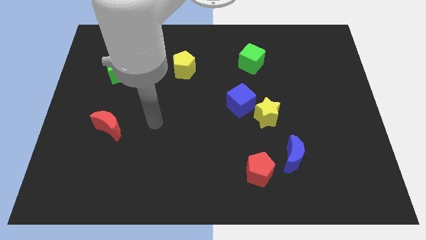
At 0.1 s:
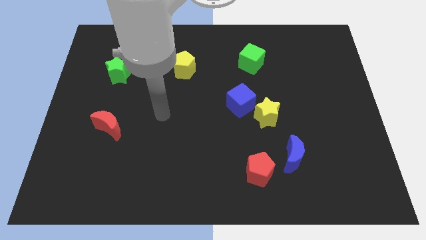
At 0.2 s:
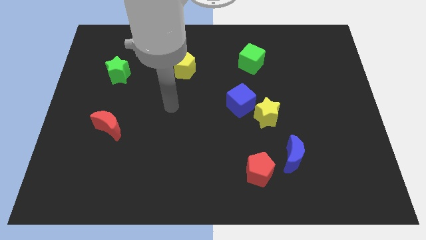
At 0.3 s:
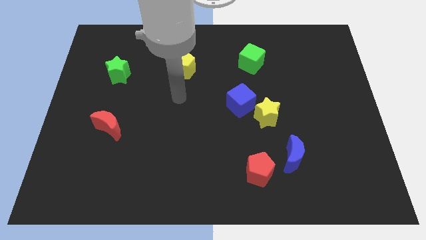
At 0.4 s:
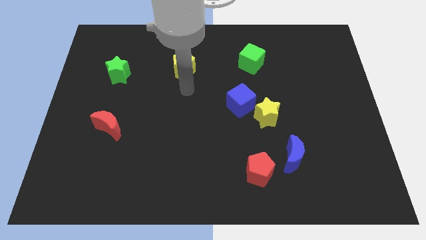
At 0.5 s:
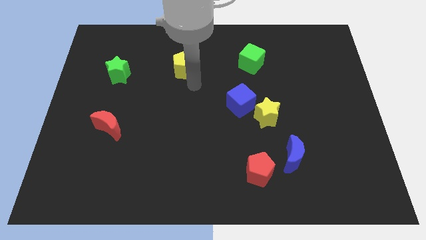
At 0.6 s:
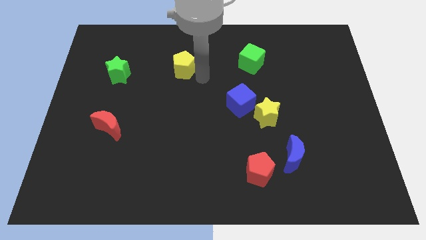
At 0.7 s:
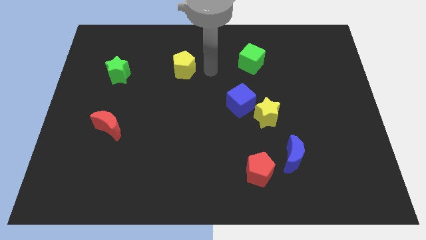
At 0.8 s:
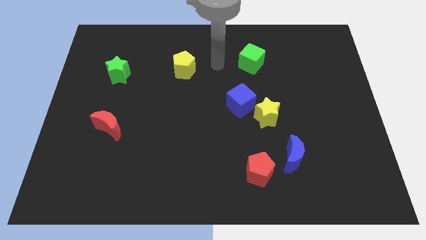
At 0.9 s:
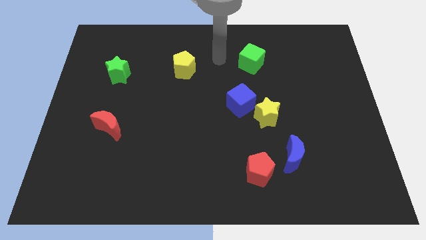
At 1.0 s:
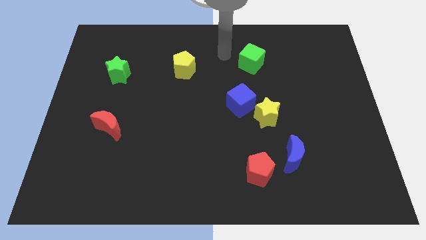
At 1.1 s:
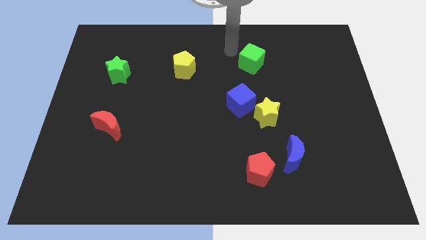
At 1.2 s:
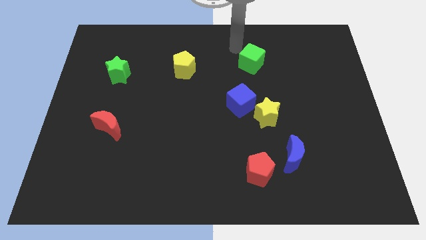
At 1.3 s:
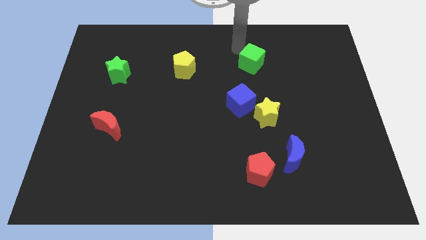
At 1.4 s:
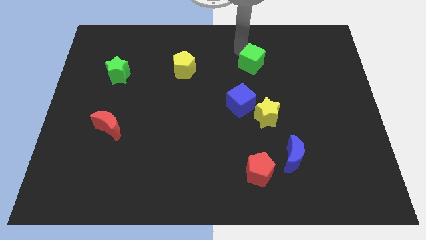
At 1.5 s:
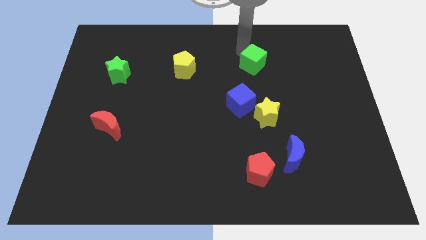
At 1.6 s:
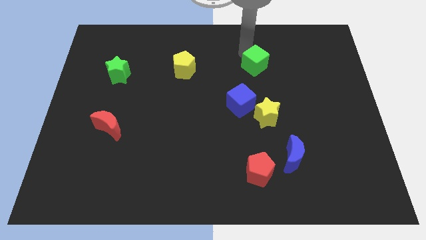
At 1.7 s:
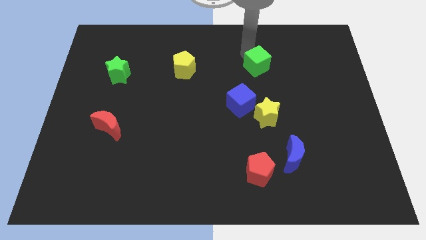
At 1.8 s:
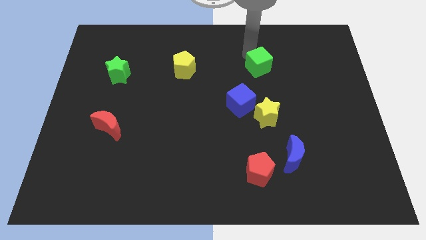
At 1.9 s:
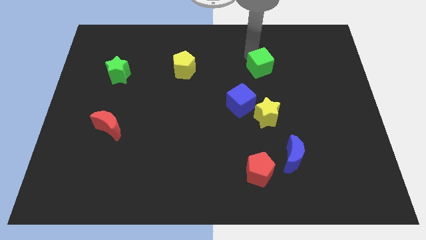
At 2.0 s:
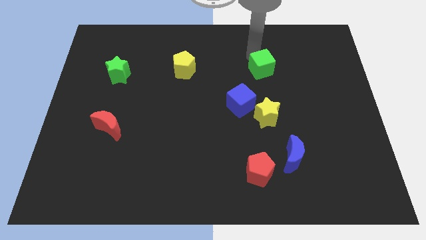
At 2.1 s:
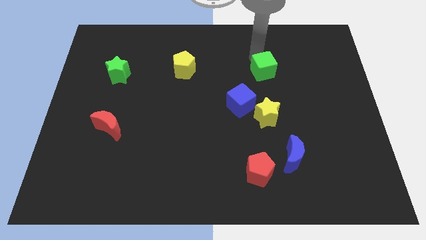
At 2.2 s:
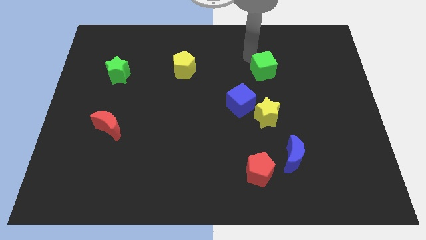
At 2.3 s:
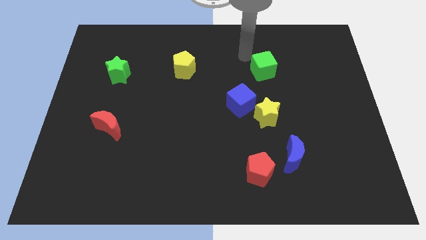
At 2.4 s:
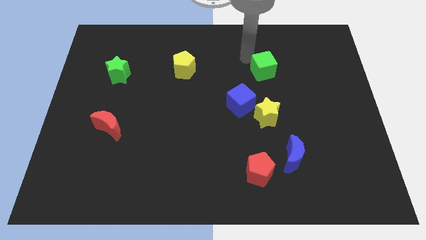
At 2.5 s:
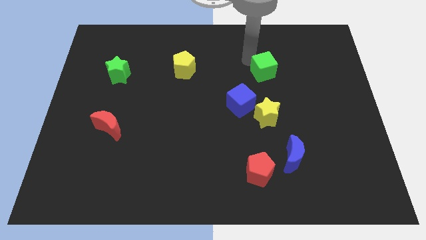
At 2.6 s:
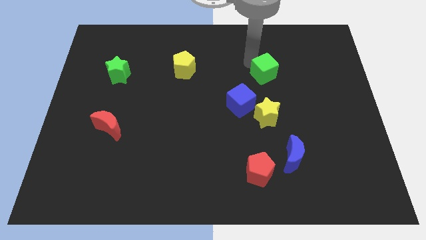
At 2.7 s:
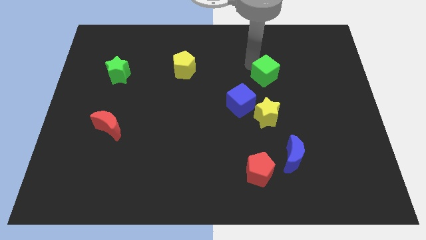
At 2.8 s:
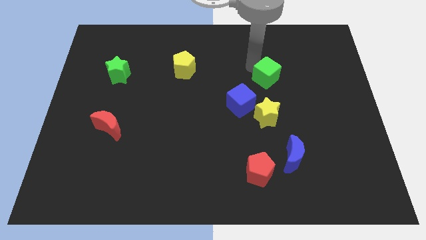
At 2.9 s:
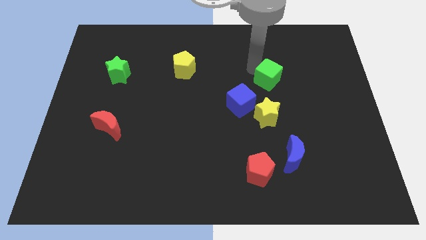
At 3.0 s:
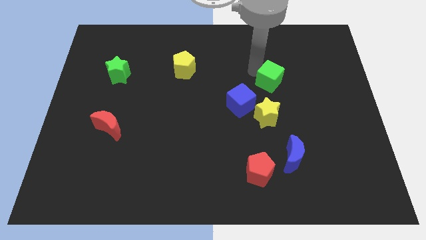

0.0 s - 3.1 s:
slightly push the green cube diagonally down and right

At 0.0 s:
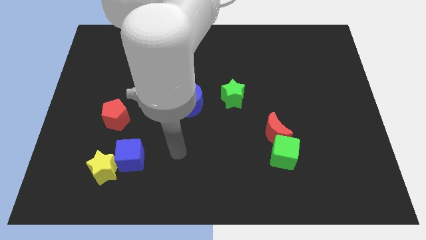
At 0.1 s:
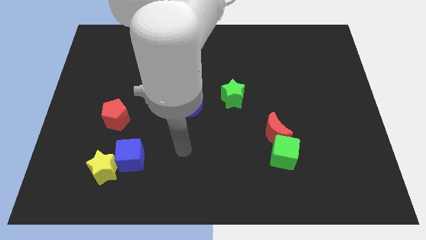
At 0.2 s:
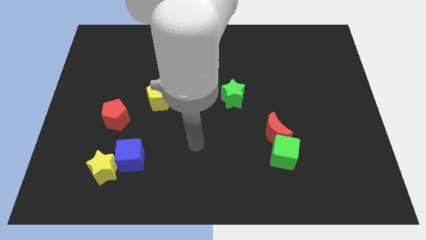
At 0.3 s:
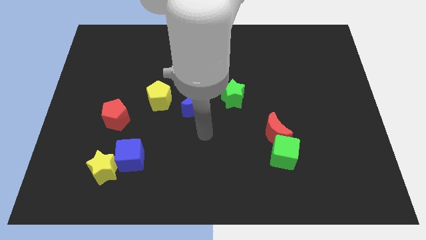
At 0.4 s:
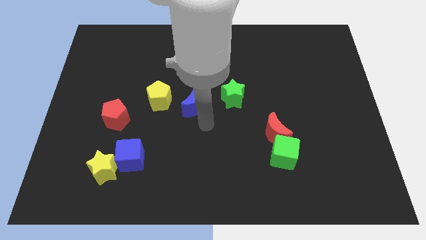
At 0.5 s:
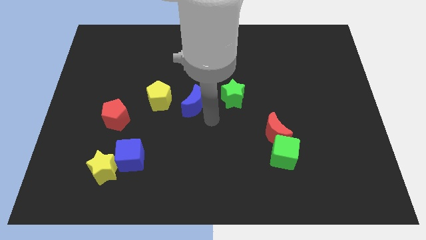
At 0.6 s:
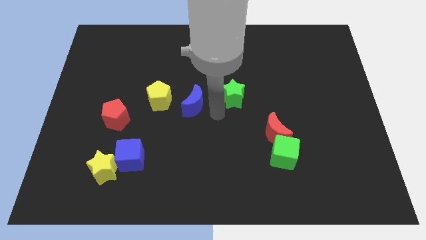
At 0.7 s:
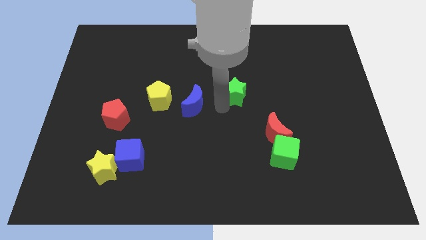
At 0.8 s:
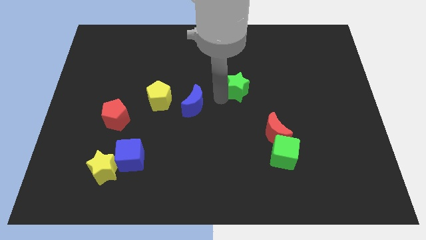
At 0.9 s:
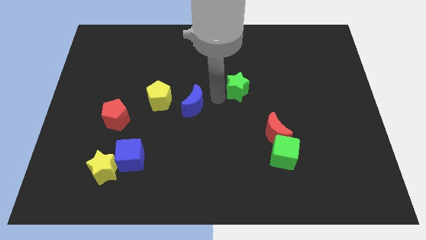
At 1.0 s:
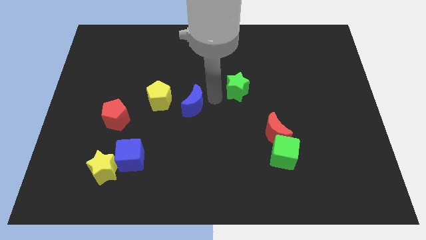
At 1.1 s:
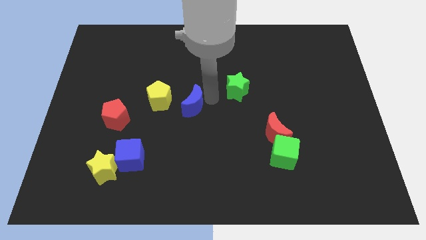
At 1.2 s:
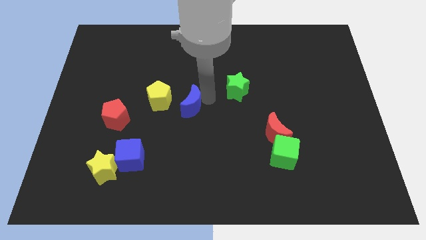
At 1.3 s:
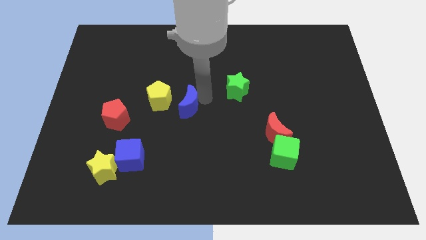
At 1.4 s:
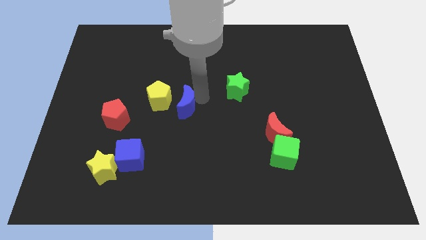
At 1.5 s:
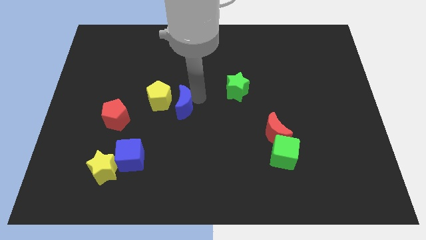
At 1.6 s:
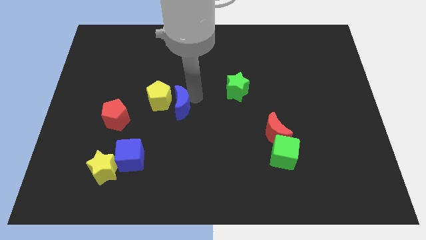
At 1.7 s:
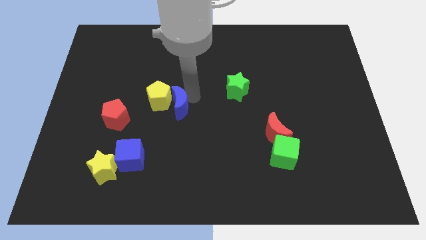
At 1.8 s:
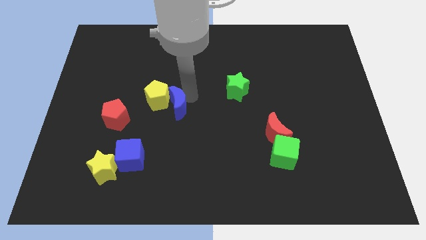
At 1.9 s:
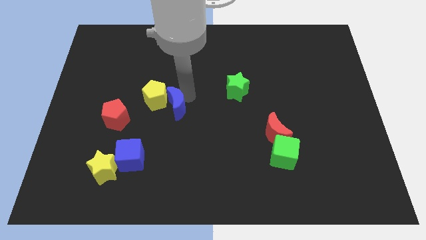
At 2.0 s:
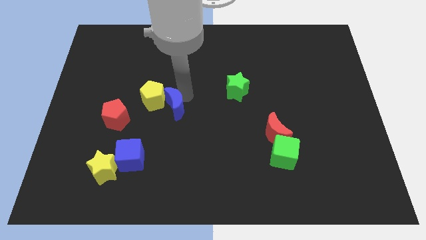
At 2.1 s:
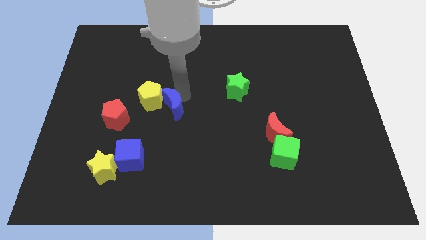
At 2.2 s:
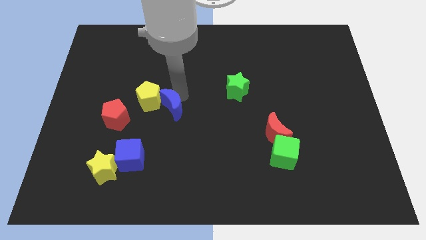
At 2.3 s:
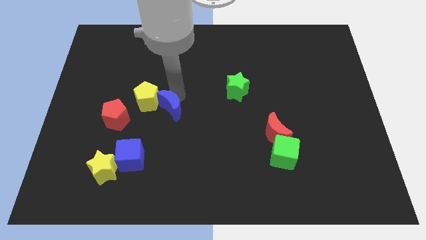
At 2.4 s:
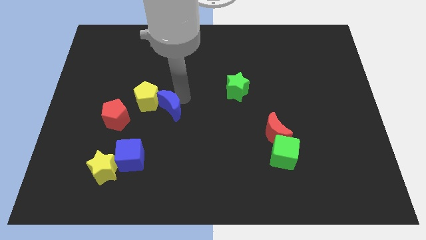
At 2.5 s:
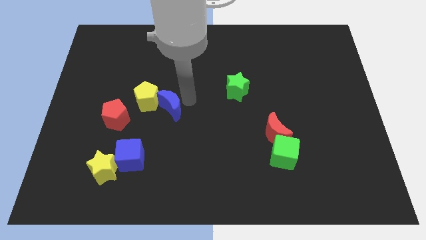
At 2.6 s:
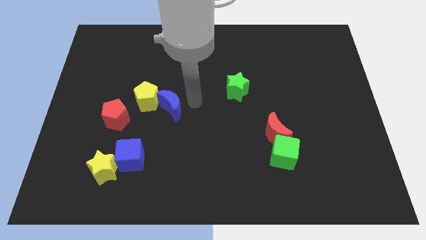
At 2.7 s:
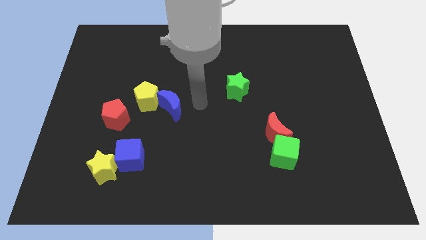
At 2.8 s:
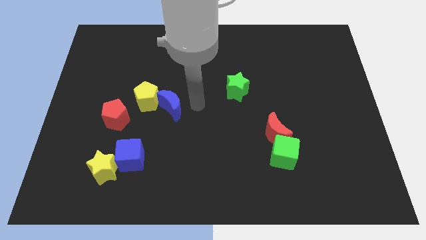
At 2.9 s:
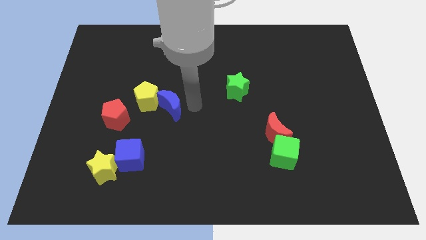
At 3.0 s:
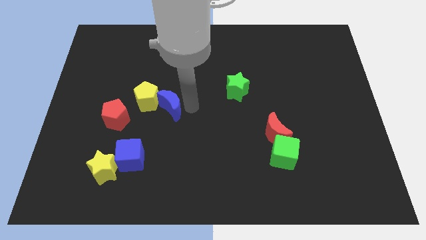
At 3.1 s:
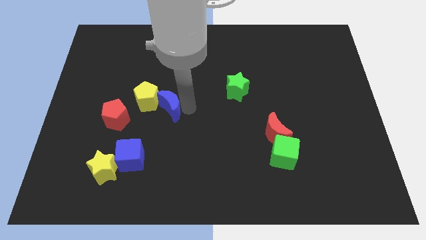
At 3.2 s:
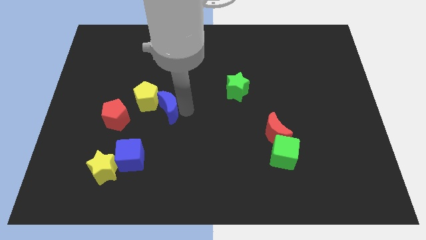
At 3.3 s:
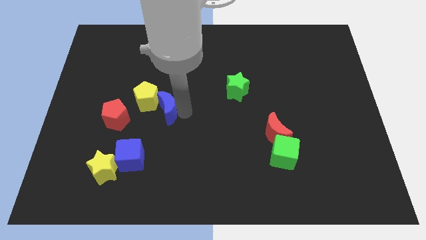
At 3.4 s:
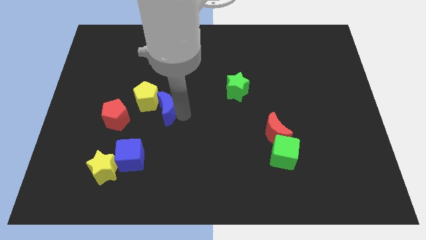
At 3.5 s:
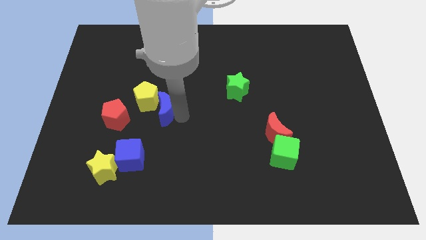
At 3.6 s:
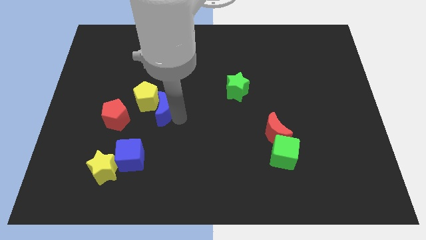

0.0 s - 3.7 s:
move the blue moon to the left a little bit

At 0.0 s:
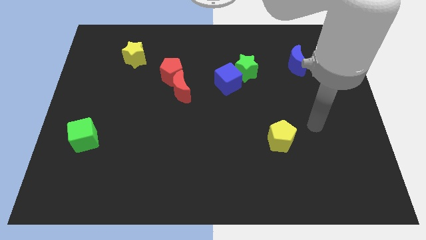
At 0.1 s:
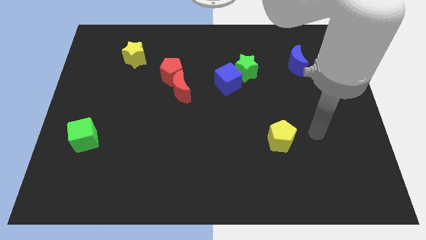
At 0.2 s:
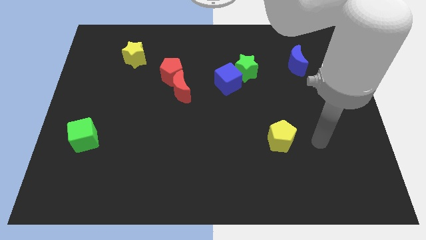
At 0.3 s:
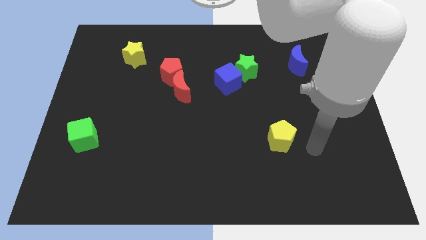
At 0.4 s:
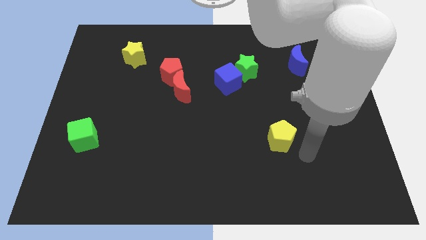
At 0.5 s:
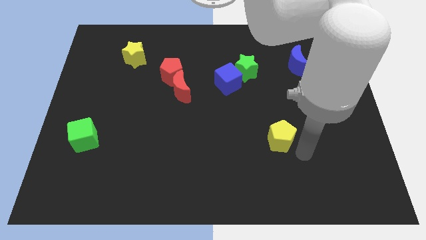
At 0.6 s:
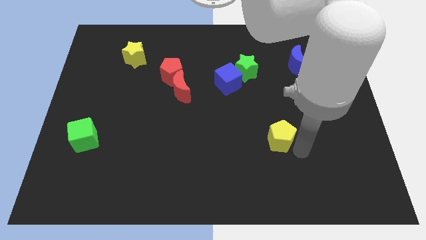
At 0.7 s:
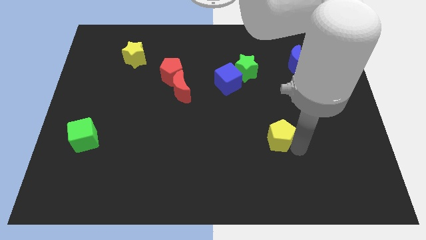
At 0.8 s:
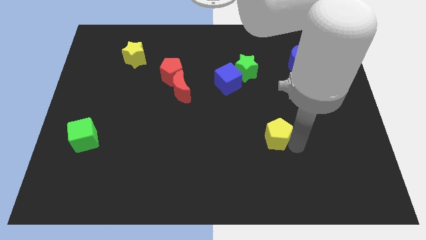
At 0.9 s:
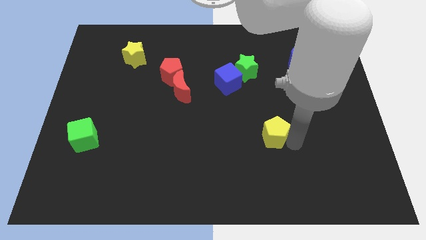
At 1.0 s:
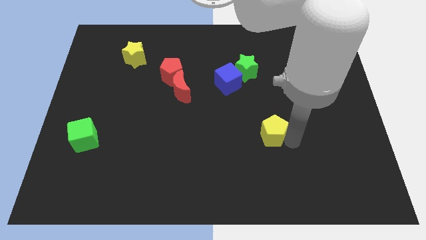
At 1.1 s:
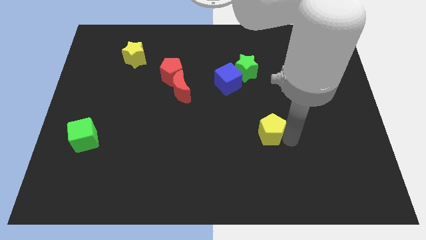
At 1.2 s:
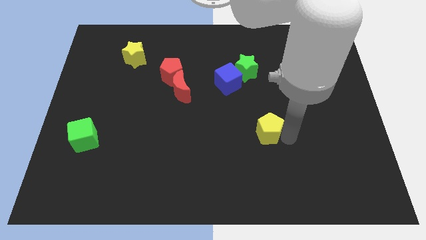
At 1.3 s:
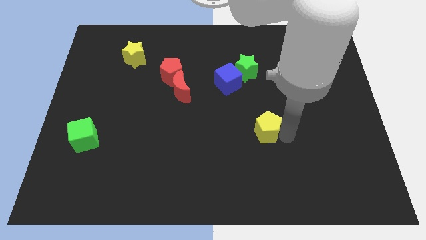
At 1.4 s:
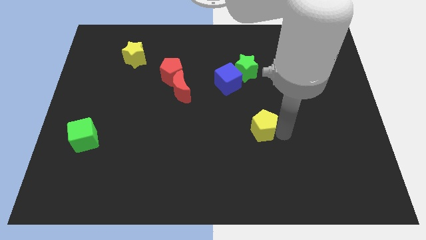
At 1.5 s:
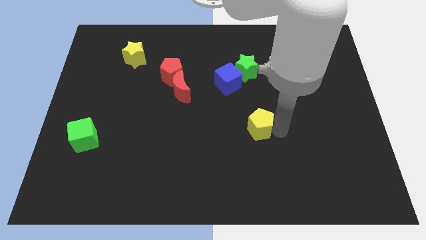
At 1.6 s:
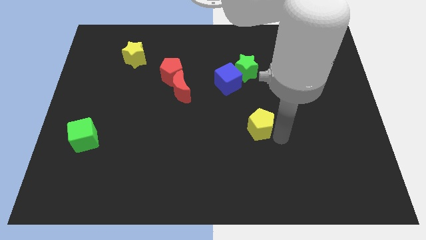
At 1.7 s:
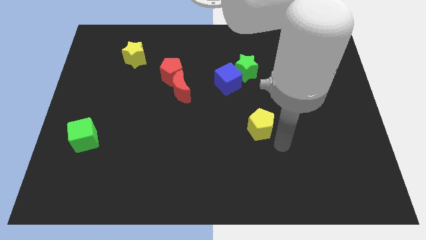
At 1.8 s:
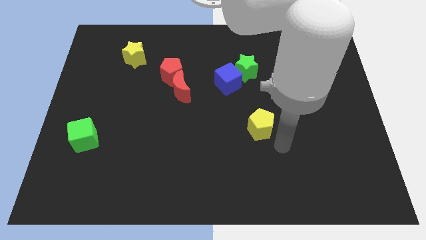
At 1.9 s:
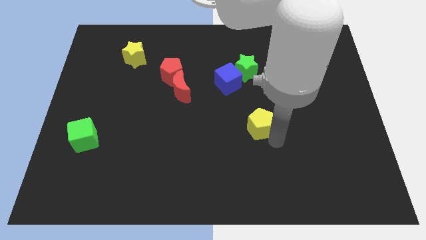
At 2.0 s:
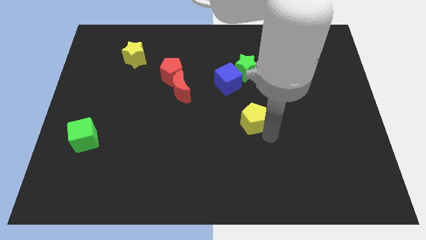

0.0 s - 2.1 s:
slide the yellow pentagon a little up and then left
